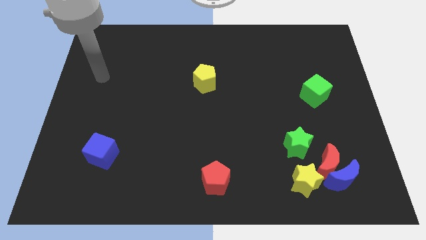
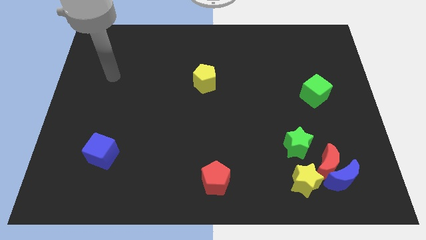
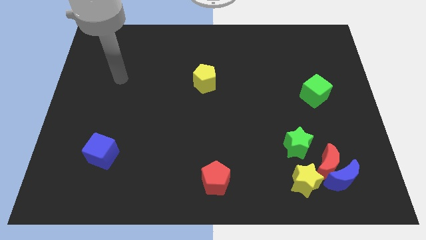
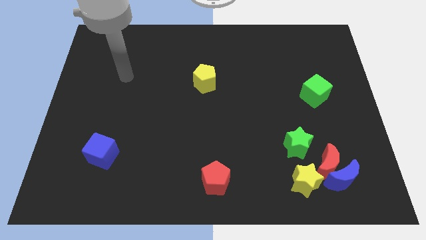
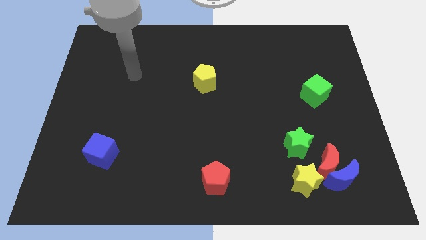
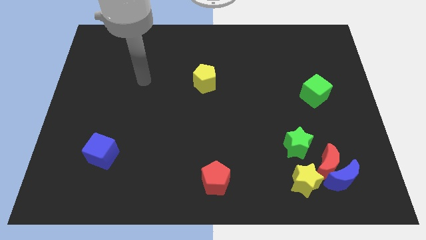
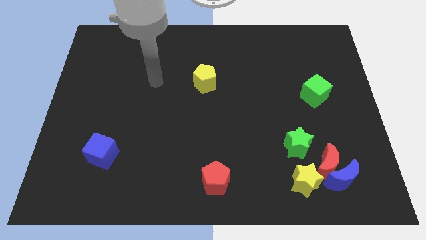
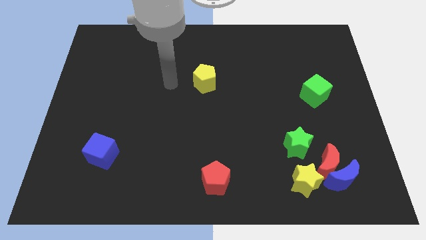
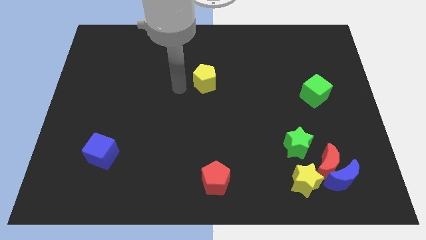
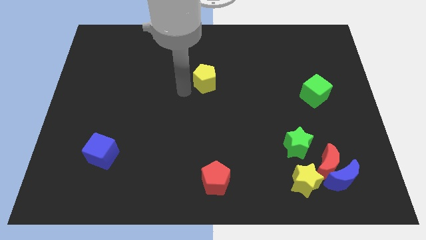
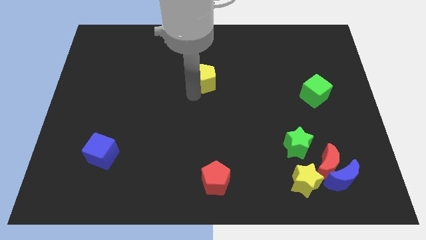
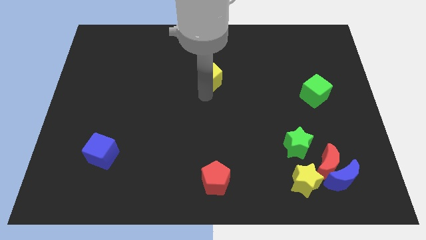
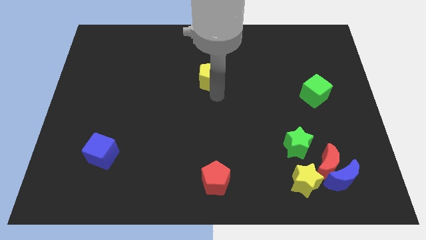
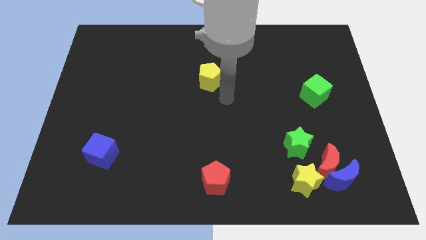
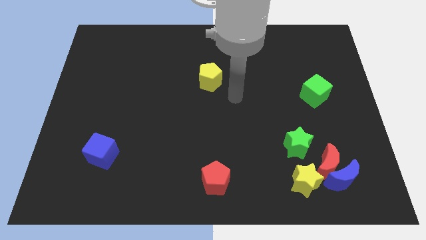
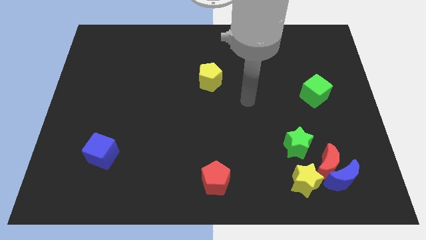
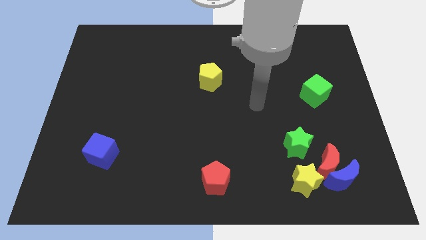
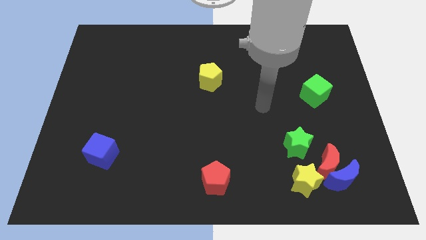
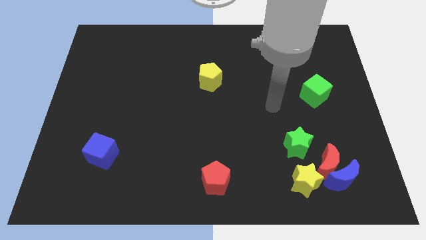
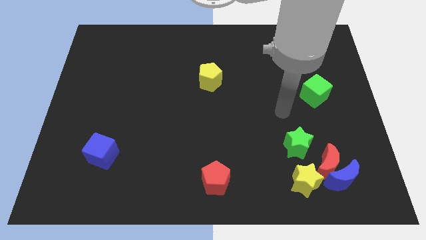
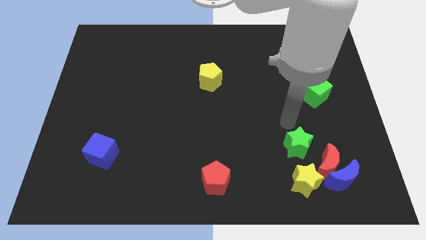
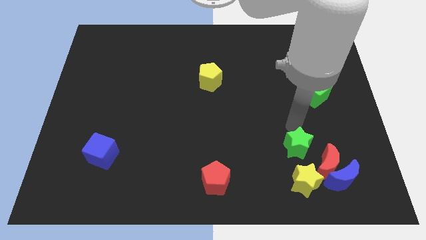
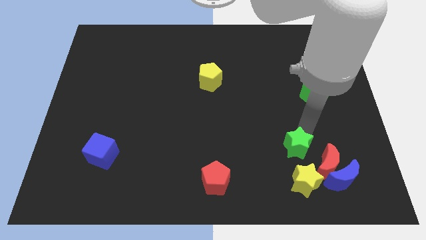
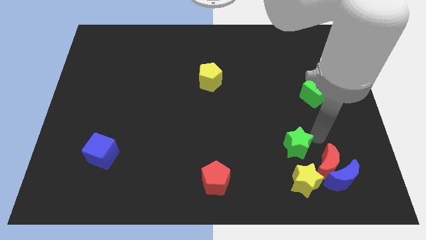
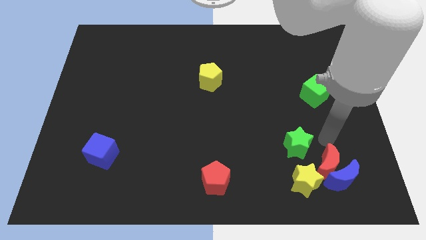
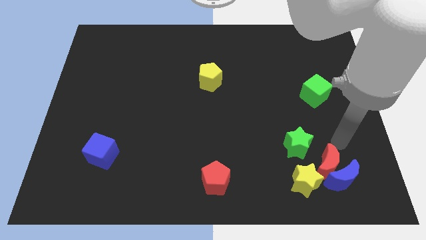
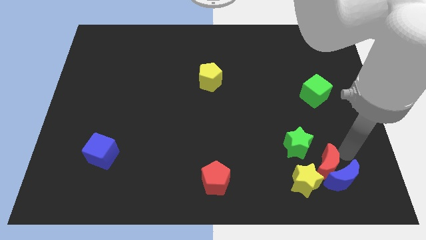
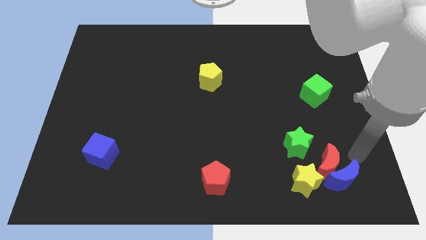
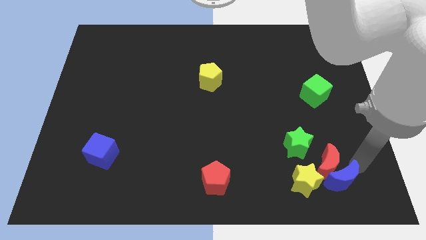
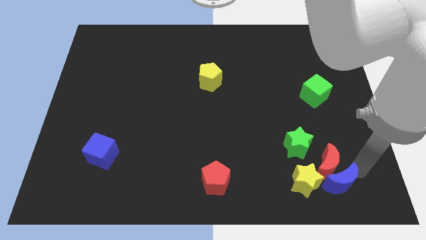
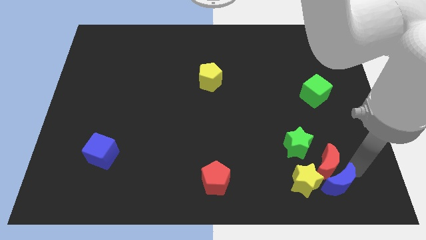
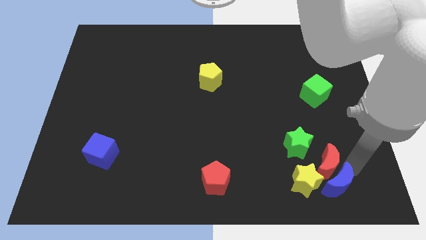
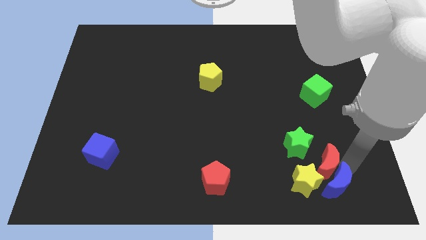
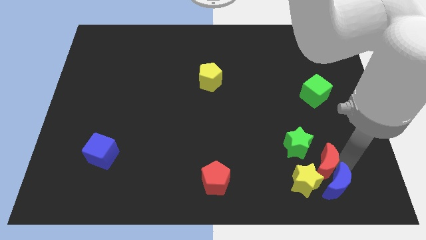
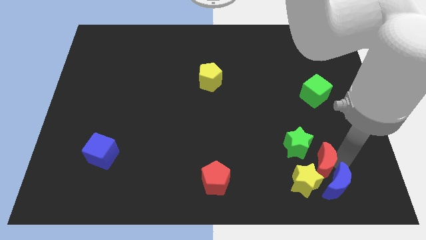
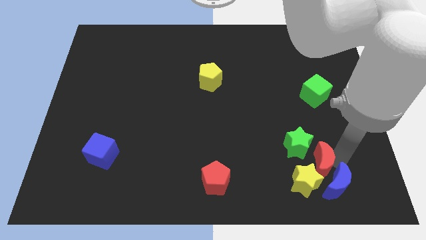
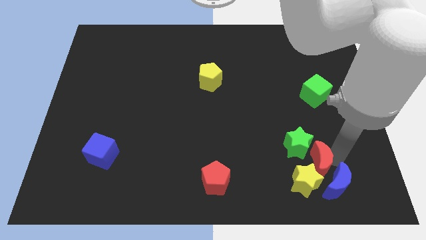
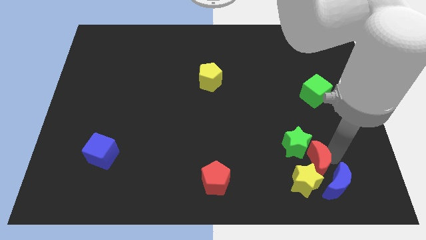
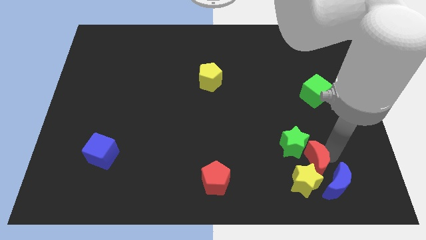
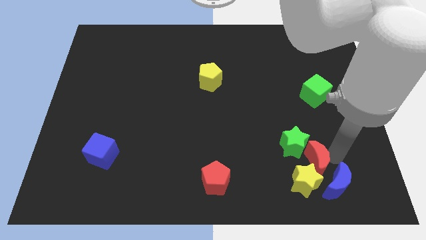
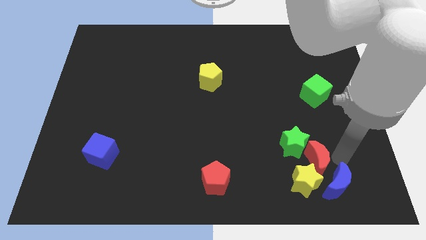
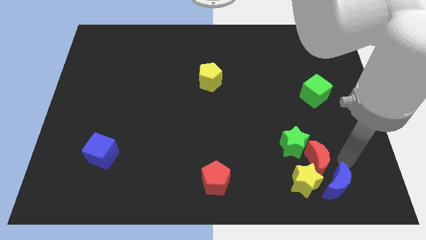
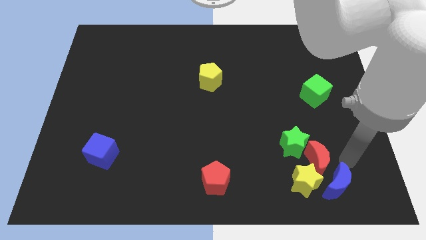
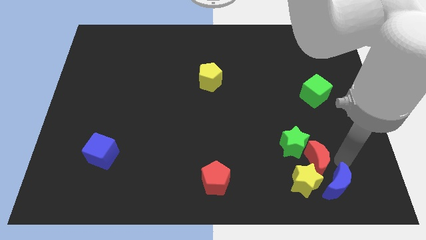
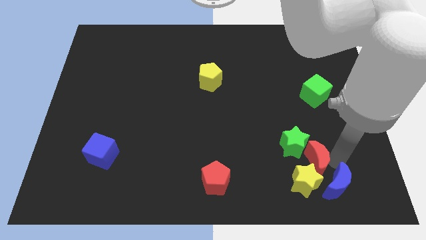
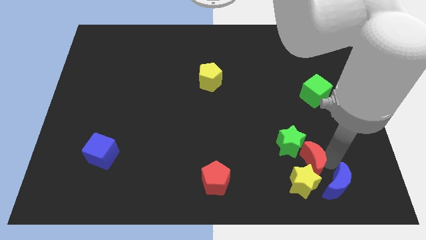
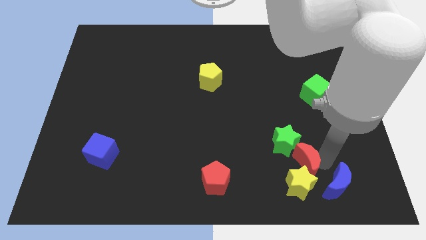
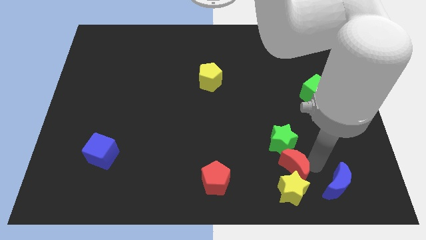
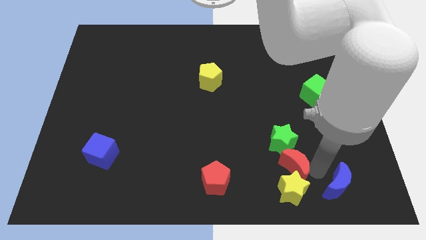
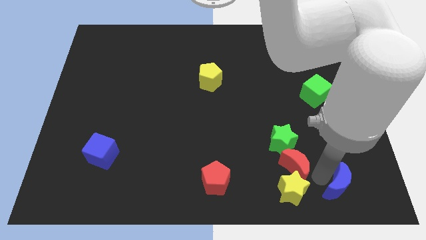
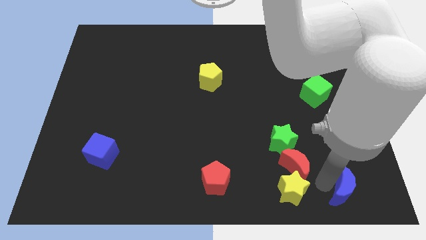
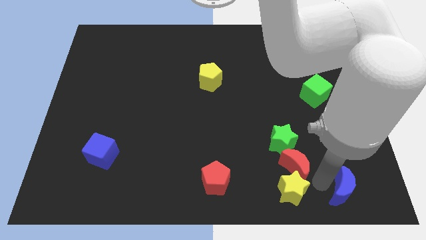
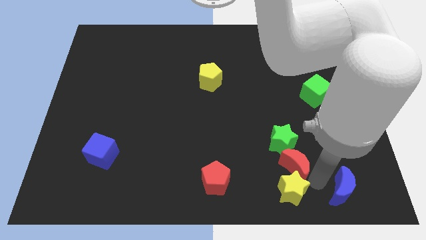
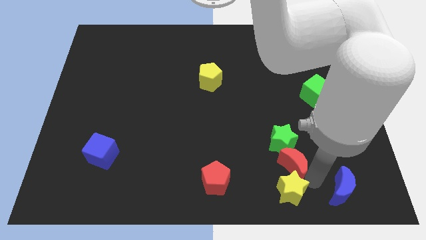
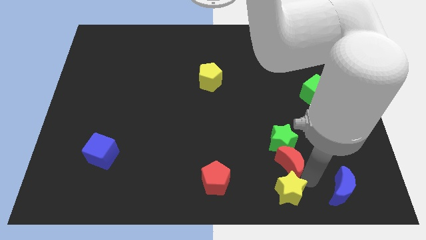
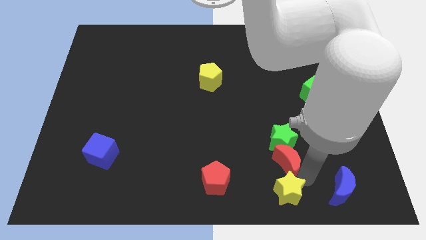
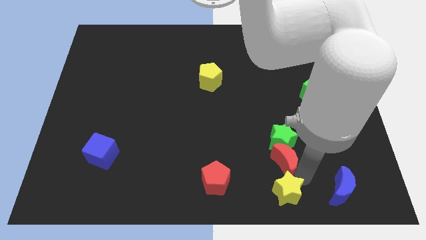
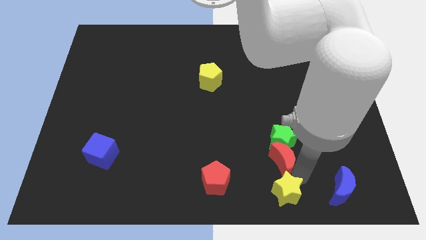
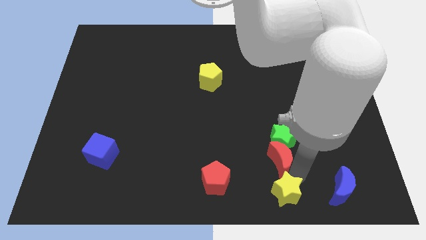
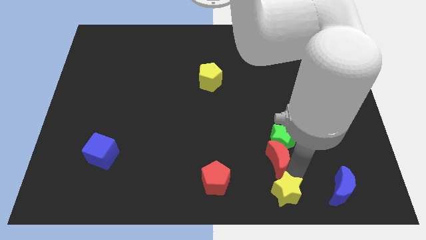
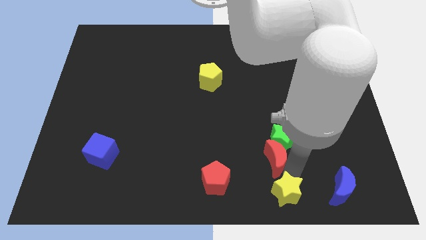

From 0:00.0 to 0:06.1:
push the red moon slightly up and to the left

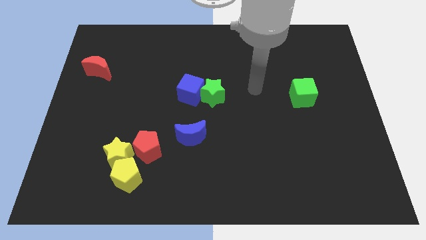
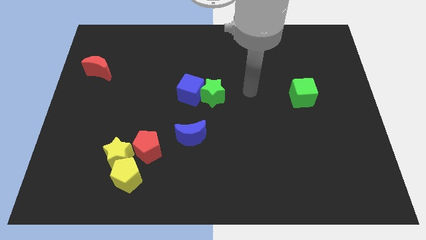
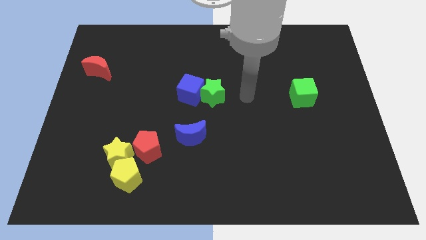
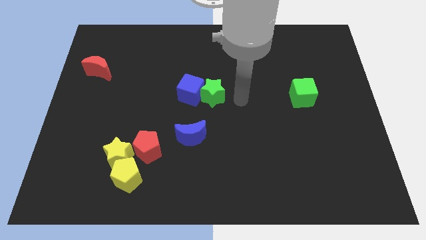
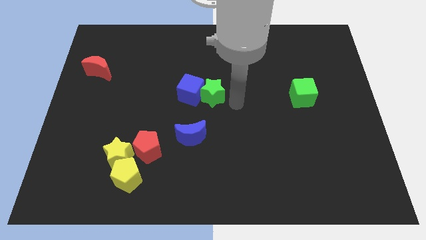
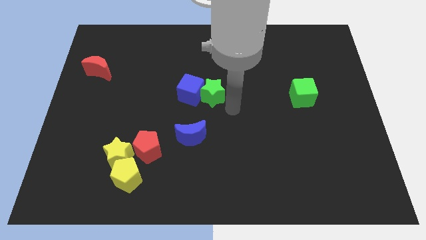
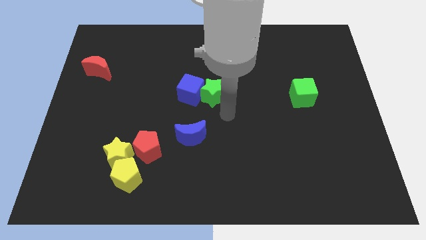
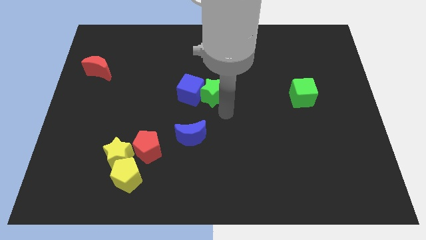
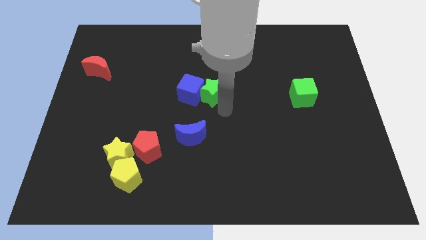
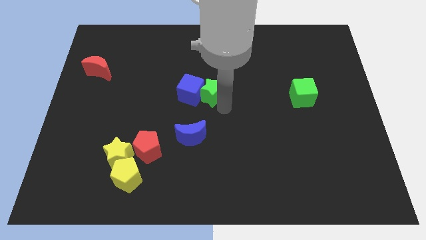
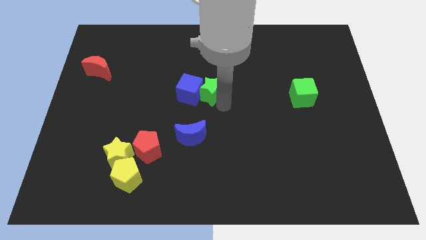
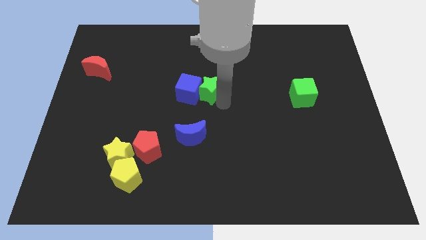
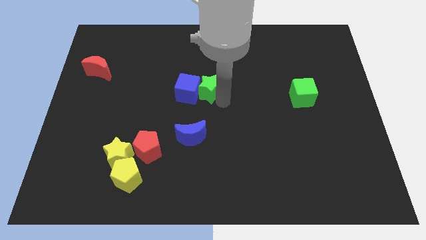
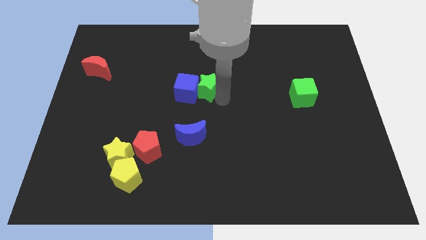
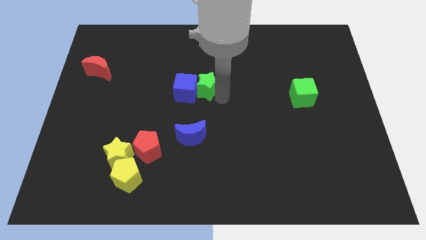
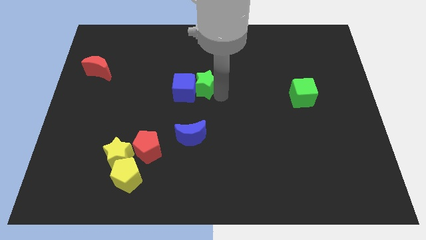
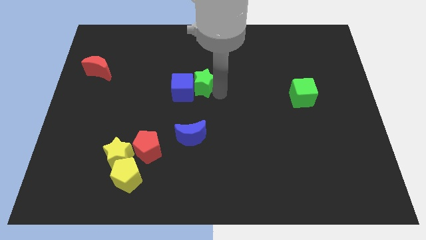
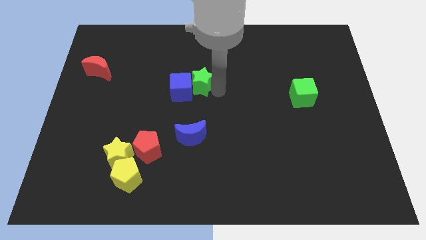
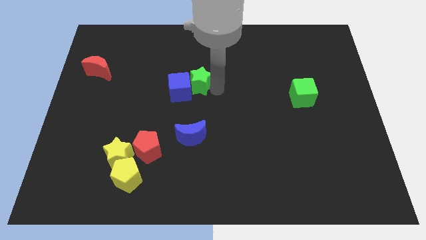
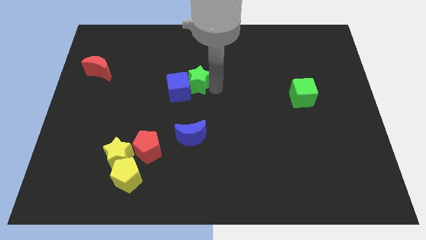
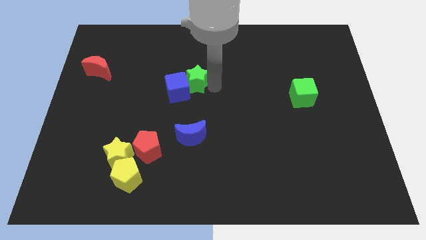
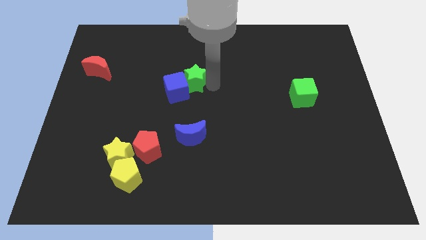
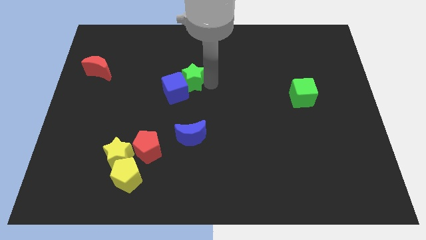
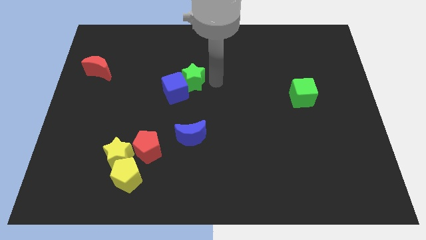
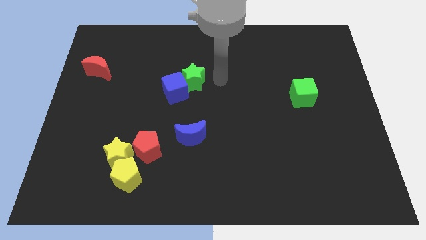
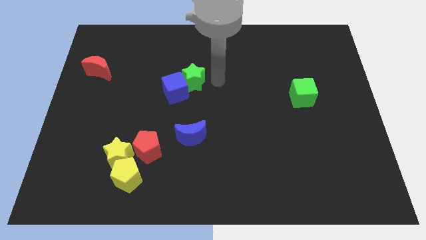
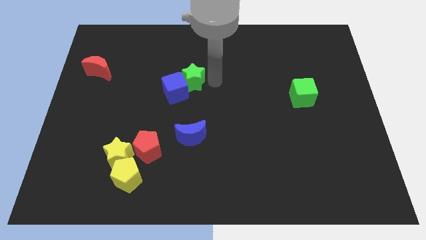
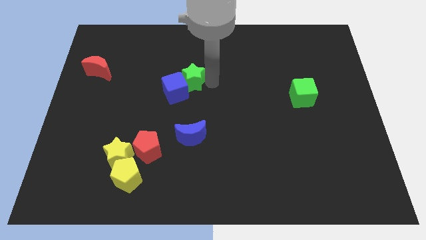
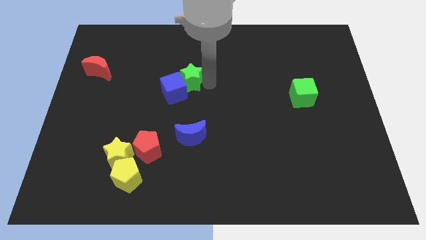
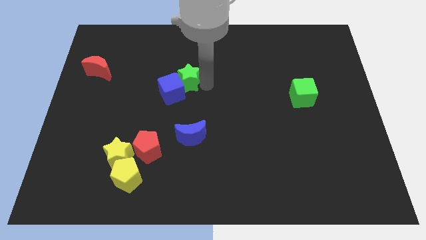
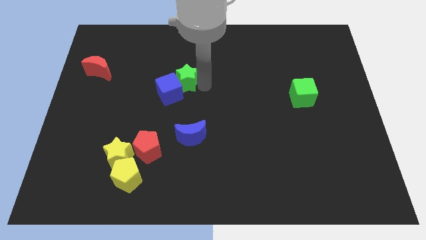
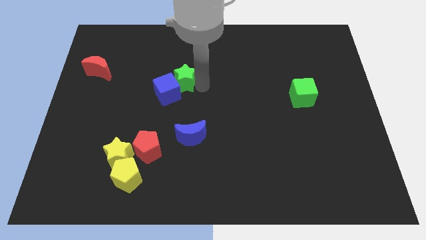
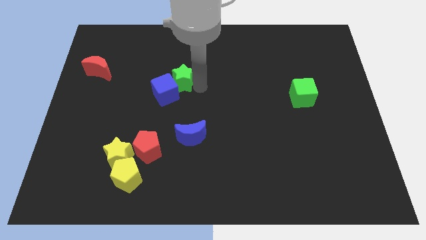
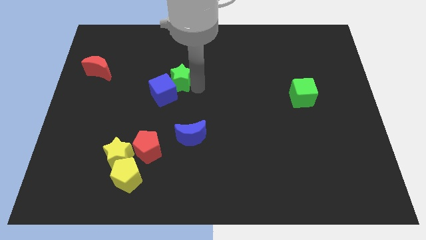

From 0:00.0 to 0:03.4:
move the green star to the left slightly
